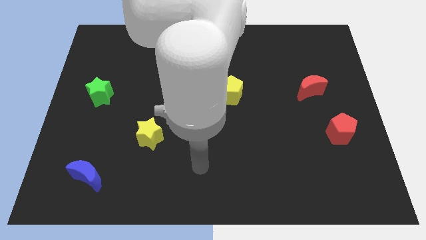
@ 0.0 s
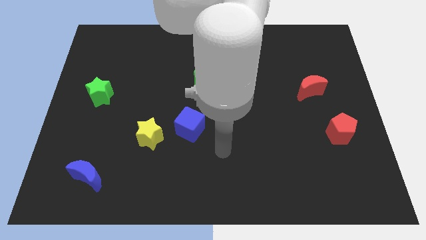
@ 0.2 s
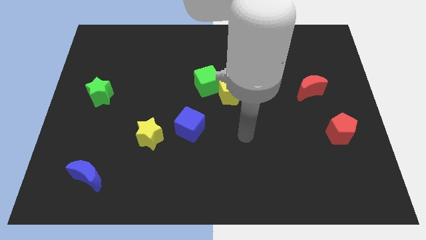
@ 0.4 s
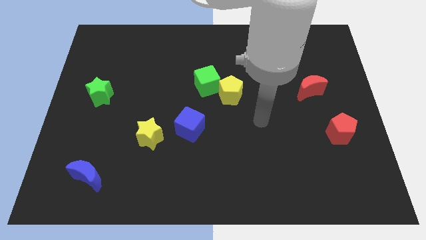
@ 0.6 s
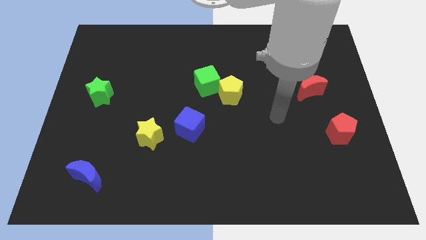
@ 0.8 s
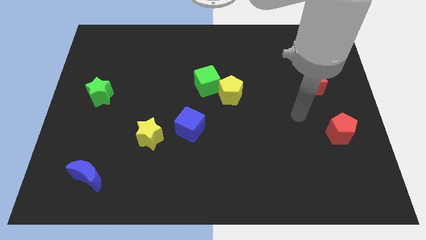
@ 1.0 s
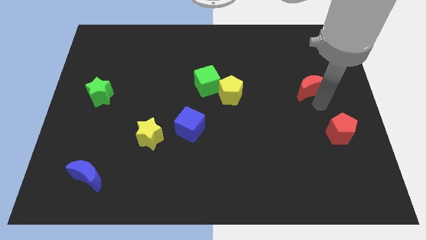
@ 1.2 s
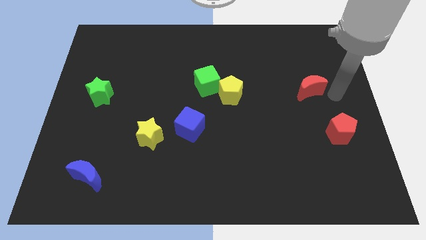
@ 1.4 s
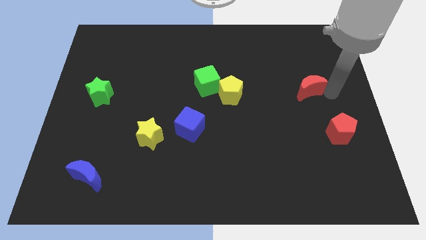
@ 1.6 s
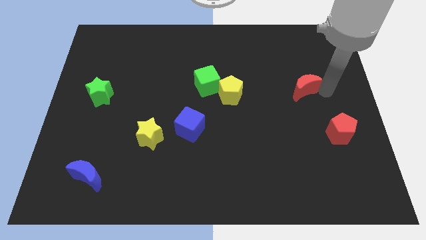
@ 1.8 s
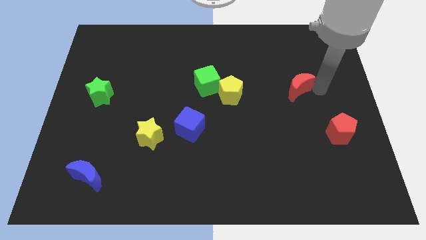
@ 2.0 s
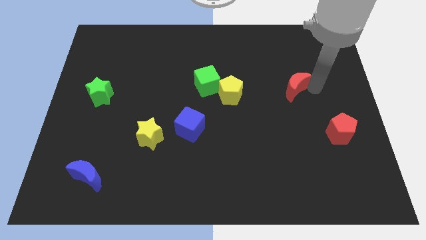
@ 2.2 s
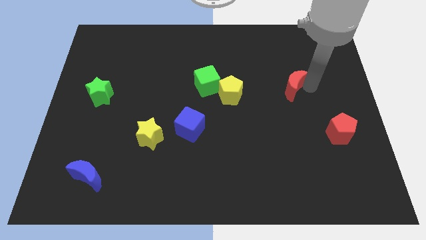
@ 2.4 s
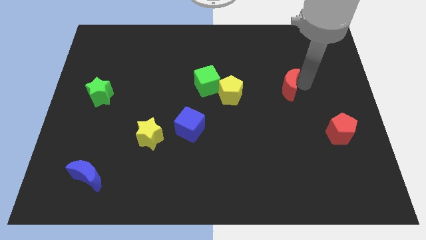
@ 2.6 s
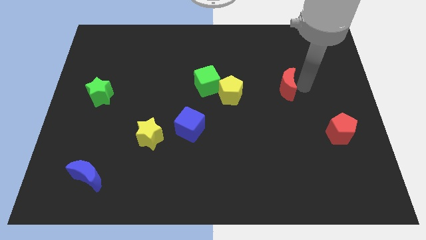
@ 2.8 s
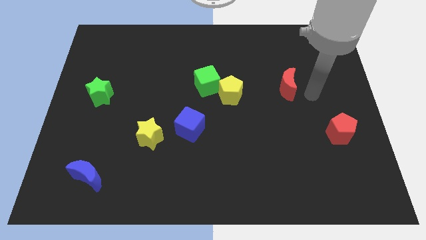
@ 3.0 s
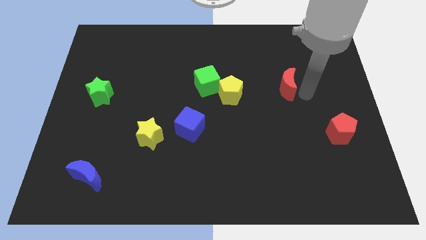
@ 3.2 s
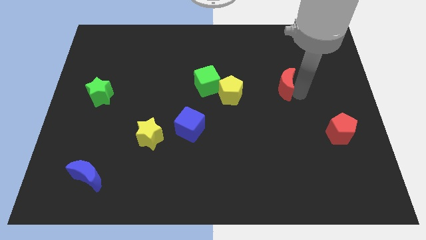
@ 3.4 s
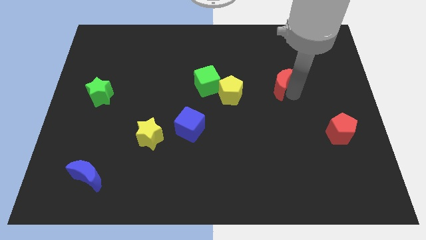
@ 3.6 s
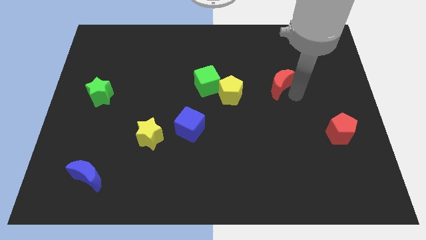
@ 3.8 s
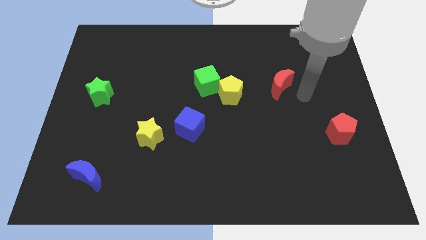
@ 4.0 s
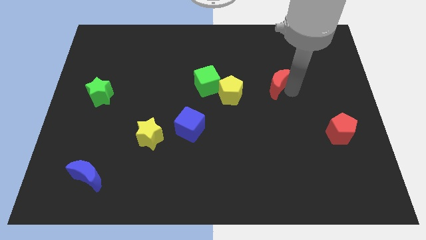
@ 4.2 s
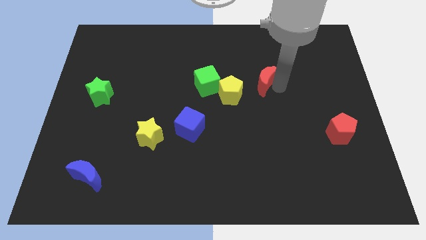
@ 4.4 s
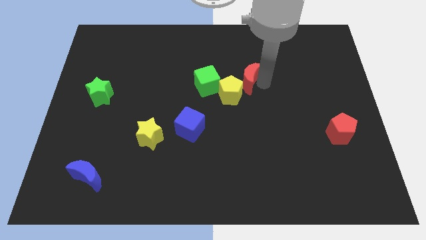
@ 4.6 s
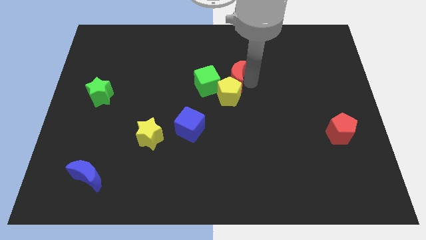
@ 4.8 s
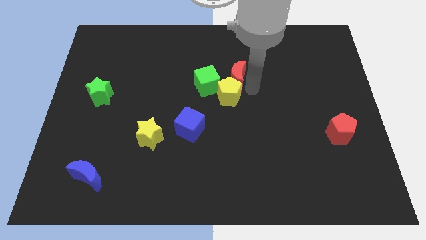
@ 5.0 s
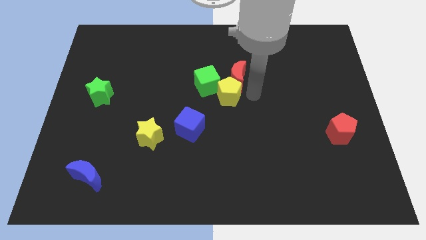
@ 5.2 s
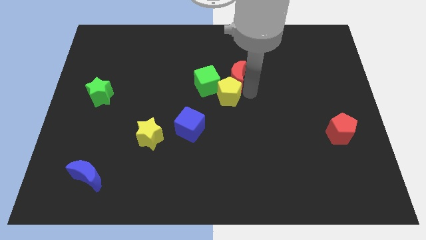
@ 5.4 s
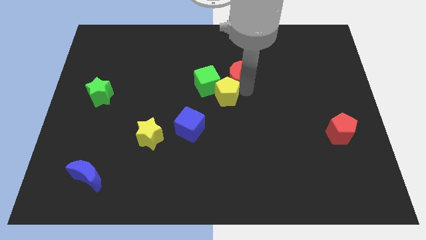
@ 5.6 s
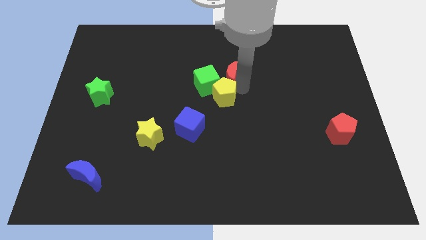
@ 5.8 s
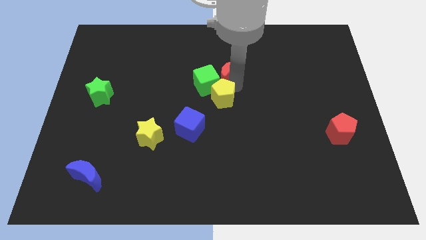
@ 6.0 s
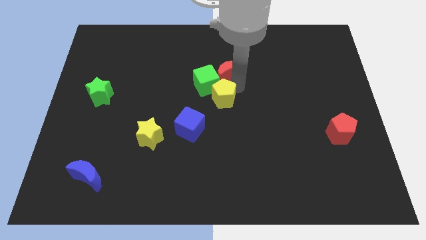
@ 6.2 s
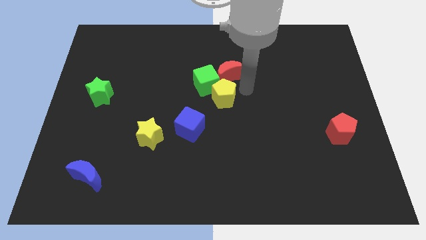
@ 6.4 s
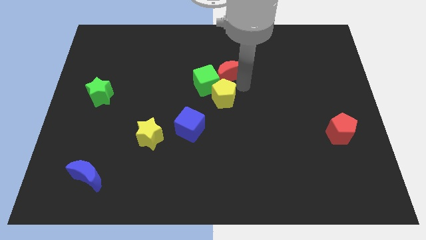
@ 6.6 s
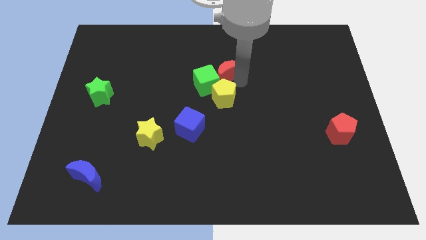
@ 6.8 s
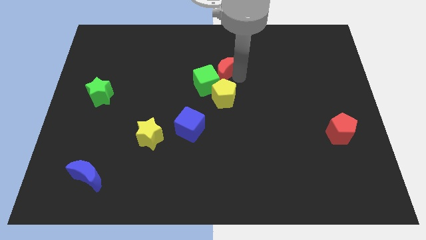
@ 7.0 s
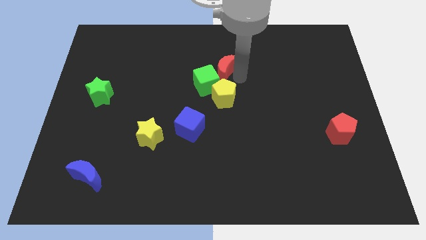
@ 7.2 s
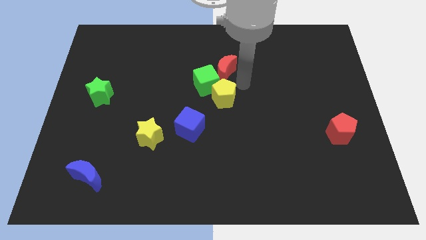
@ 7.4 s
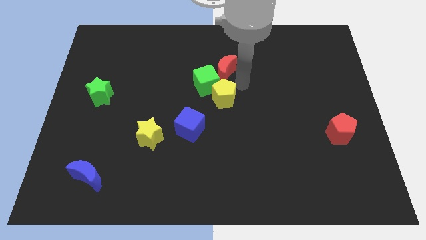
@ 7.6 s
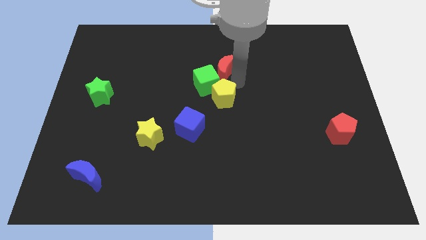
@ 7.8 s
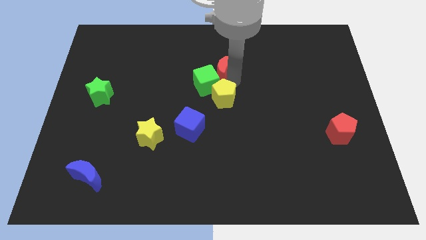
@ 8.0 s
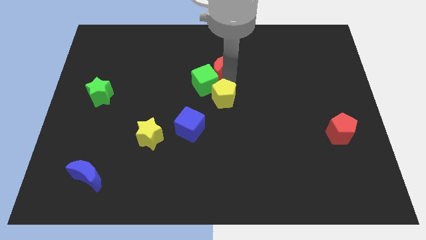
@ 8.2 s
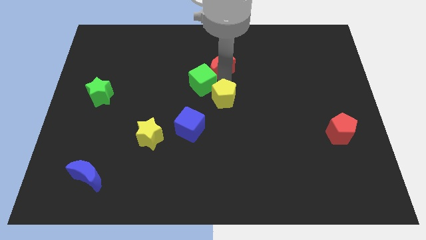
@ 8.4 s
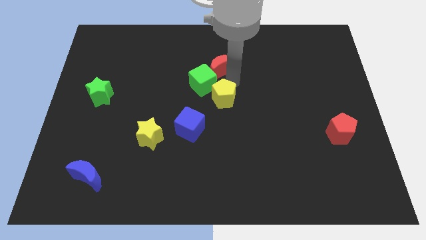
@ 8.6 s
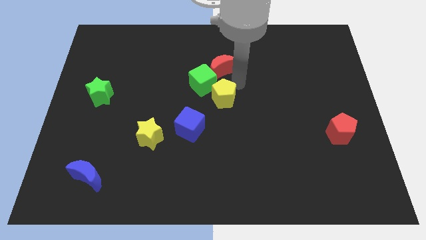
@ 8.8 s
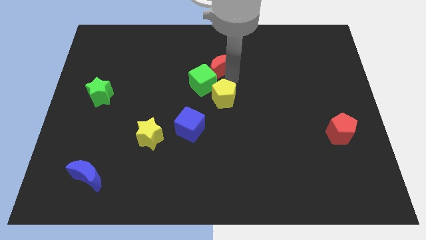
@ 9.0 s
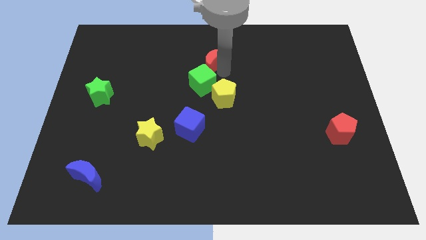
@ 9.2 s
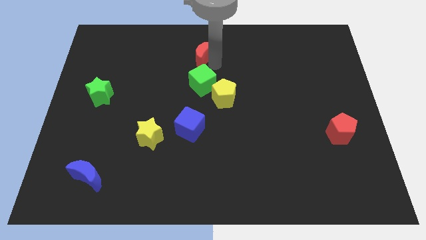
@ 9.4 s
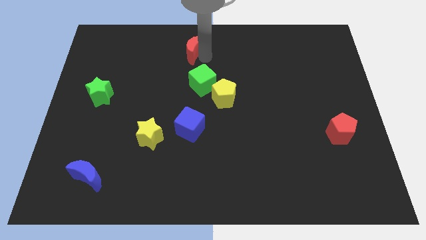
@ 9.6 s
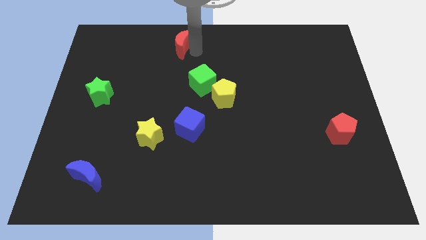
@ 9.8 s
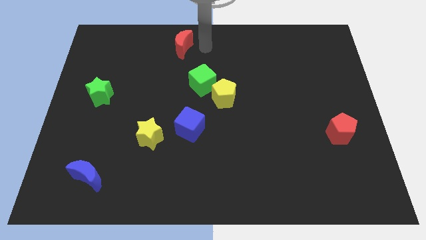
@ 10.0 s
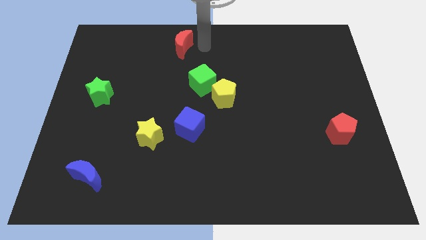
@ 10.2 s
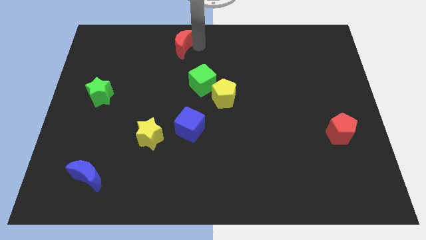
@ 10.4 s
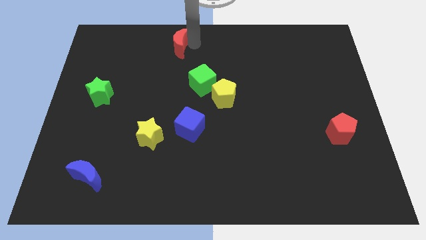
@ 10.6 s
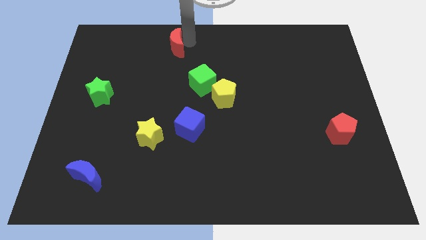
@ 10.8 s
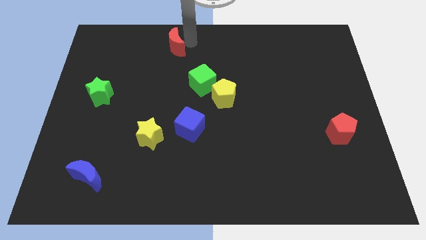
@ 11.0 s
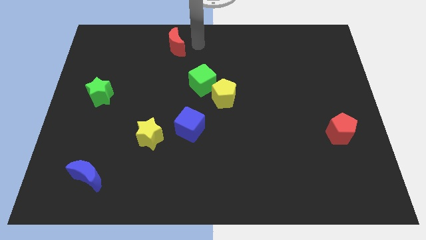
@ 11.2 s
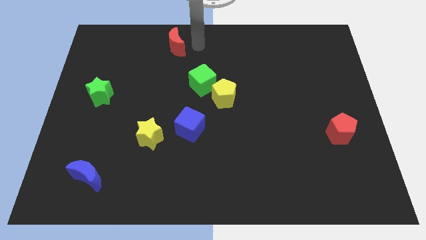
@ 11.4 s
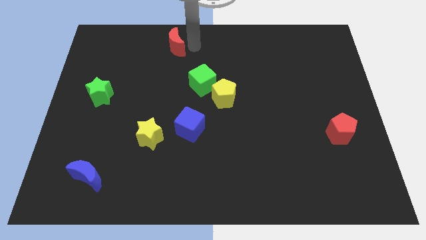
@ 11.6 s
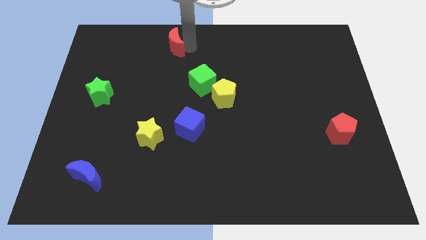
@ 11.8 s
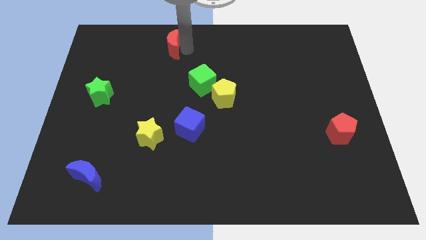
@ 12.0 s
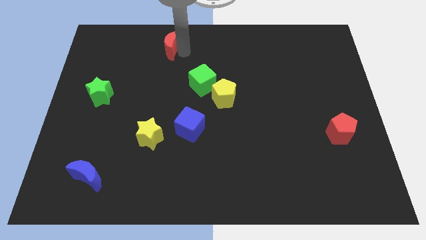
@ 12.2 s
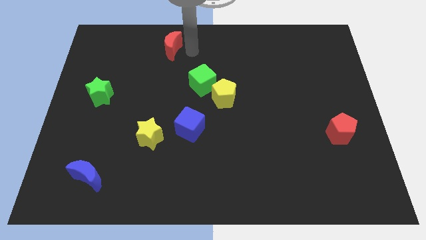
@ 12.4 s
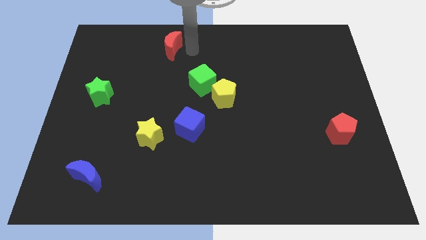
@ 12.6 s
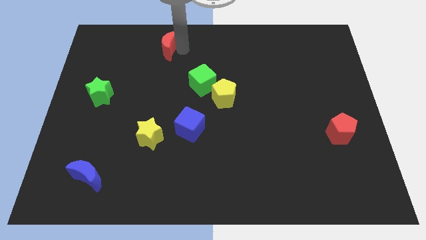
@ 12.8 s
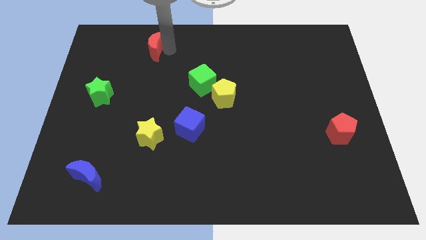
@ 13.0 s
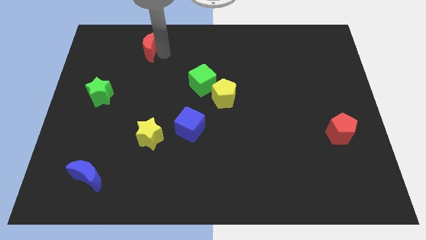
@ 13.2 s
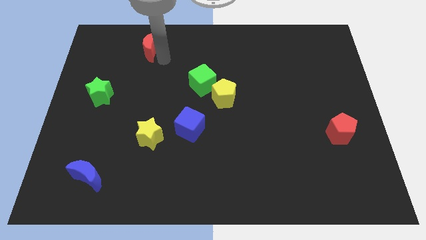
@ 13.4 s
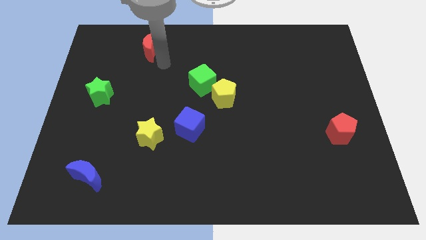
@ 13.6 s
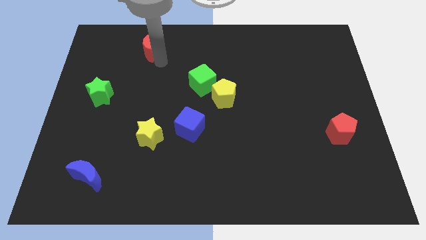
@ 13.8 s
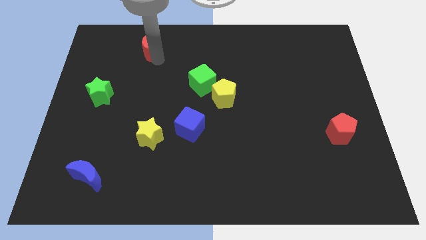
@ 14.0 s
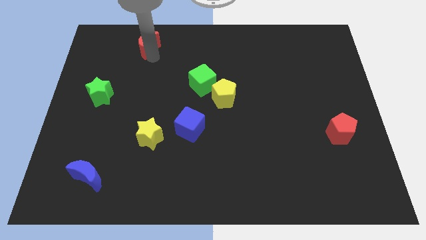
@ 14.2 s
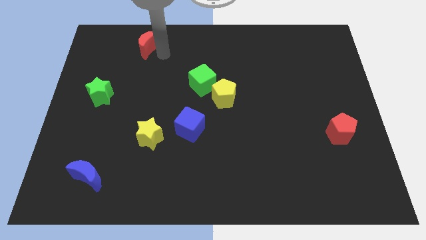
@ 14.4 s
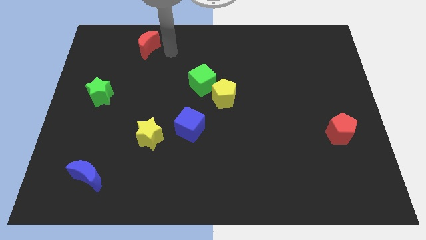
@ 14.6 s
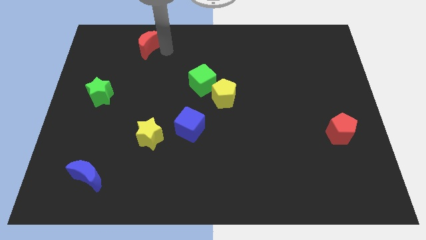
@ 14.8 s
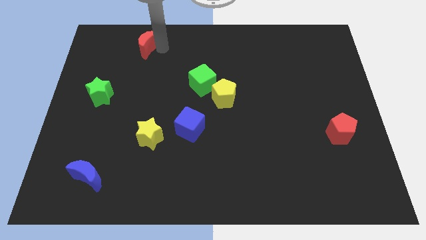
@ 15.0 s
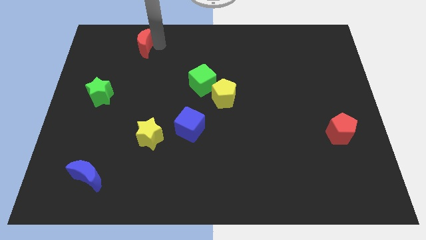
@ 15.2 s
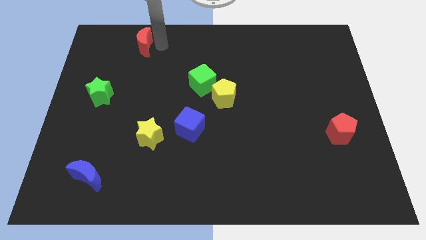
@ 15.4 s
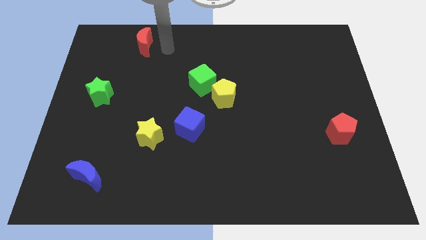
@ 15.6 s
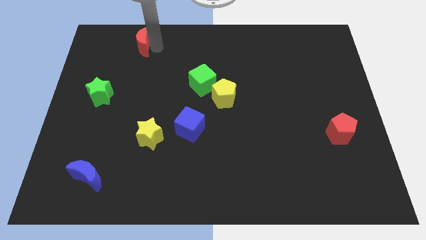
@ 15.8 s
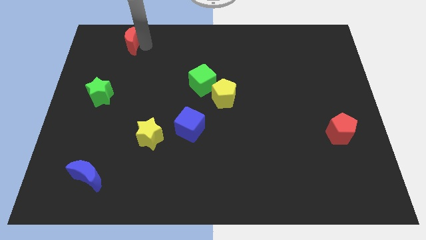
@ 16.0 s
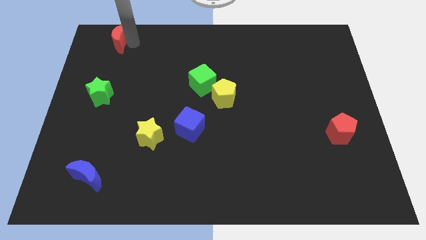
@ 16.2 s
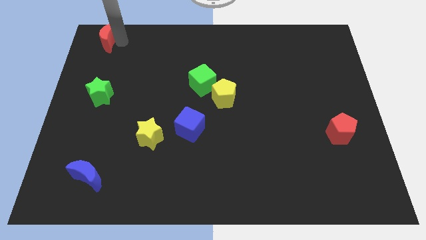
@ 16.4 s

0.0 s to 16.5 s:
push the red moon to the upper left corner
